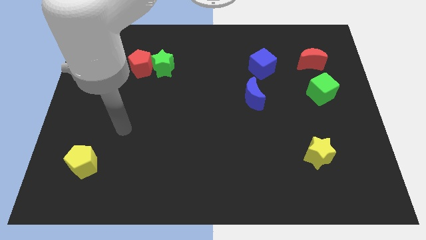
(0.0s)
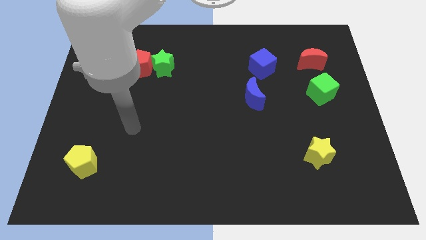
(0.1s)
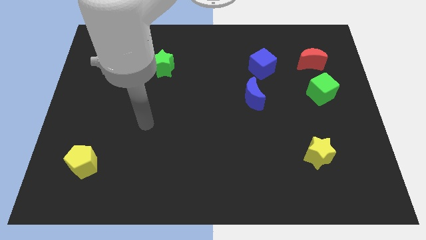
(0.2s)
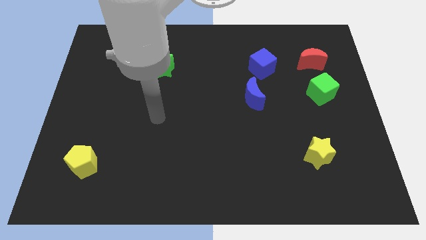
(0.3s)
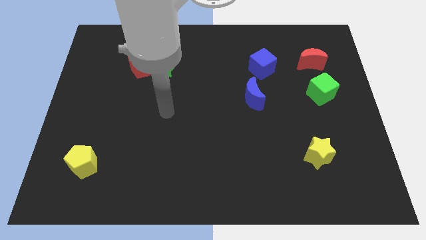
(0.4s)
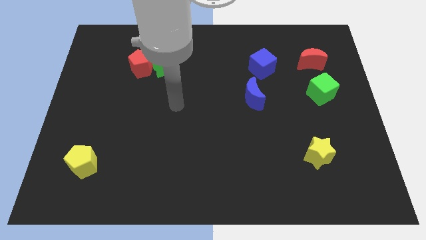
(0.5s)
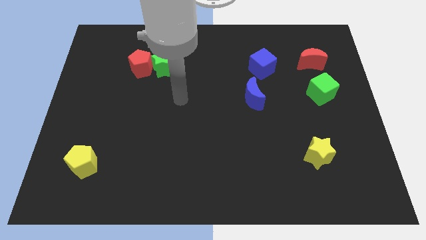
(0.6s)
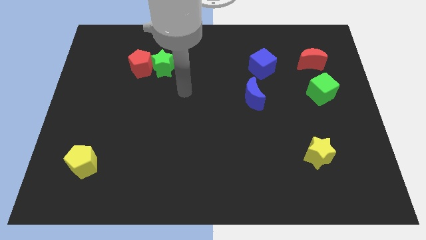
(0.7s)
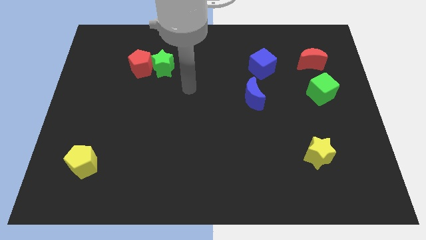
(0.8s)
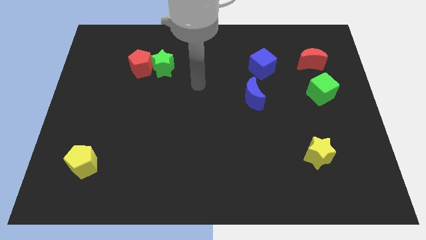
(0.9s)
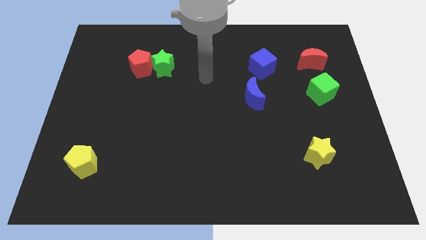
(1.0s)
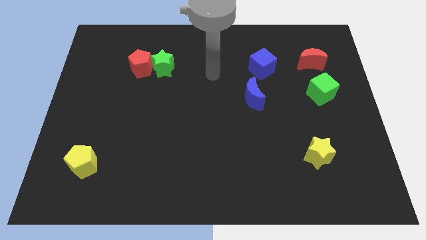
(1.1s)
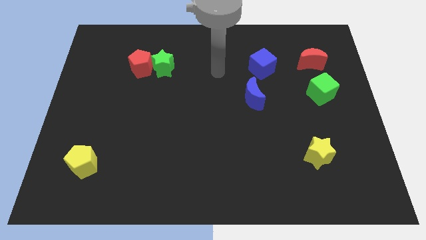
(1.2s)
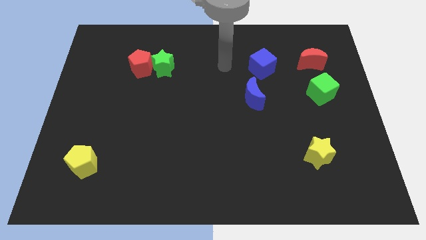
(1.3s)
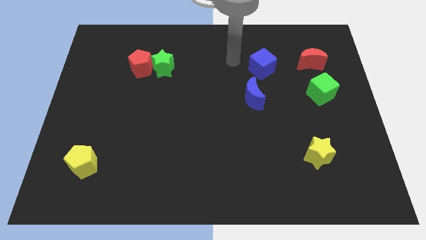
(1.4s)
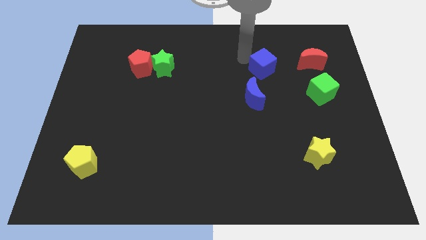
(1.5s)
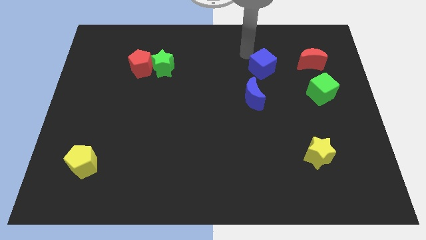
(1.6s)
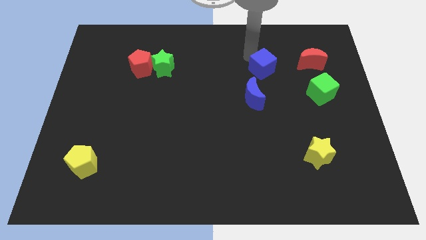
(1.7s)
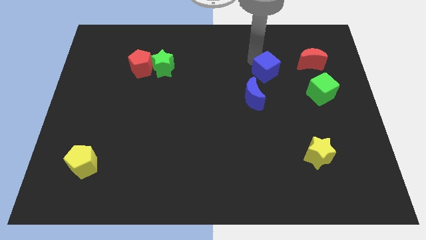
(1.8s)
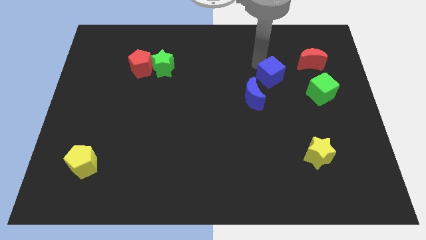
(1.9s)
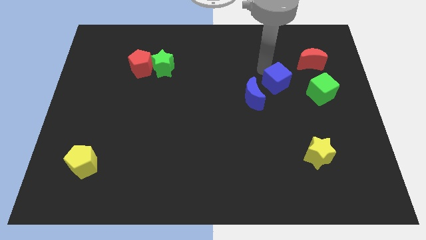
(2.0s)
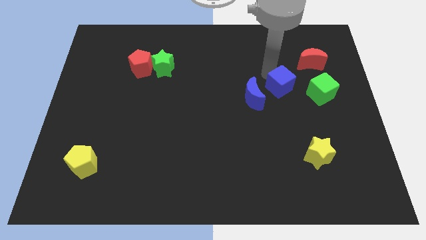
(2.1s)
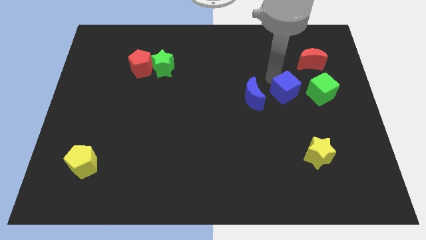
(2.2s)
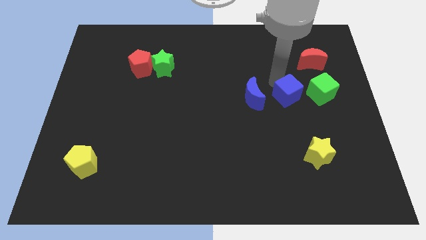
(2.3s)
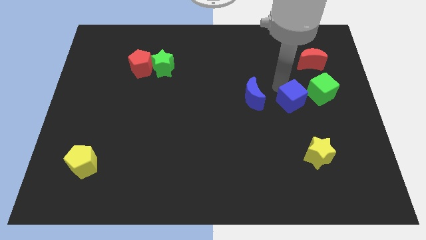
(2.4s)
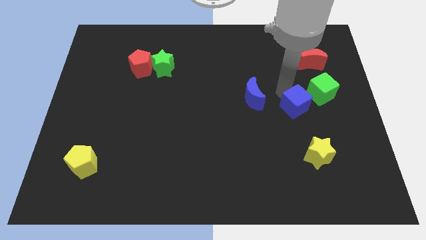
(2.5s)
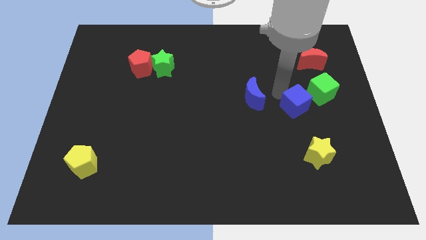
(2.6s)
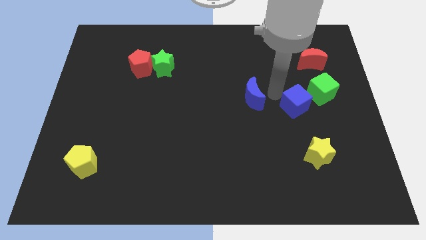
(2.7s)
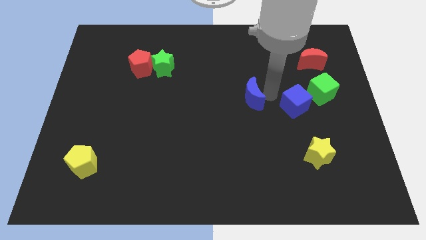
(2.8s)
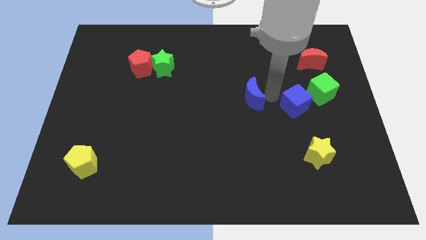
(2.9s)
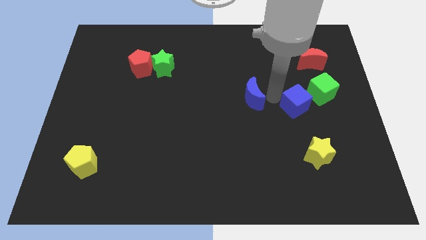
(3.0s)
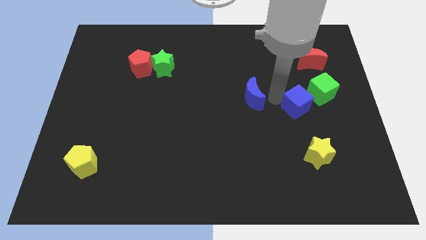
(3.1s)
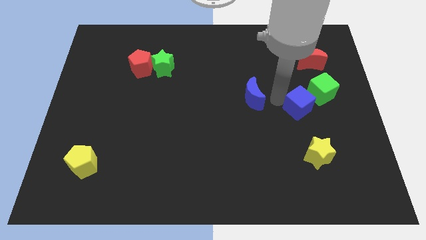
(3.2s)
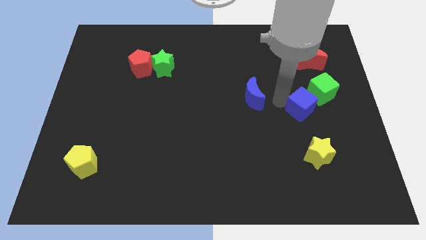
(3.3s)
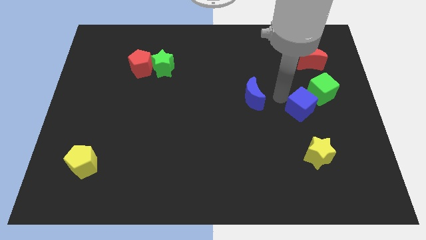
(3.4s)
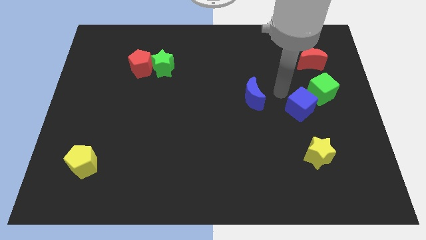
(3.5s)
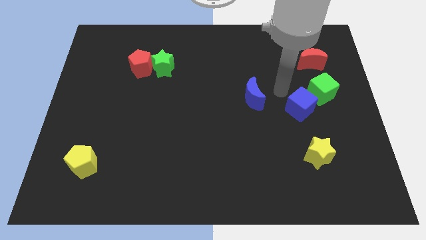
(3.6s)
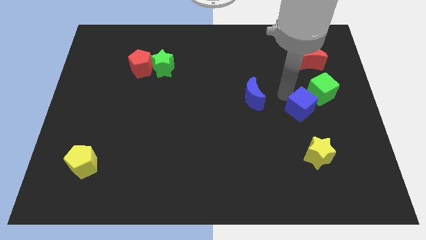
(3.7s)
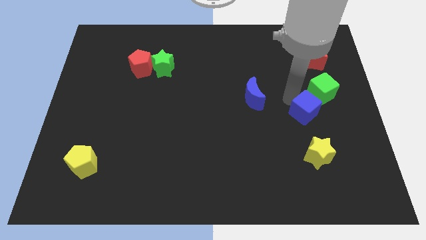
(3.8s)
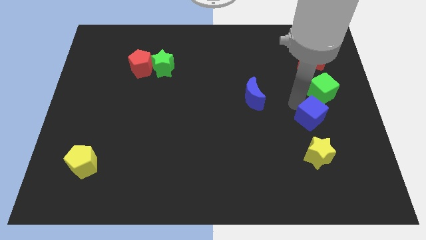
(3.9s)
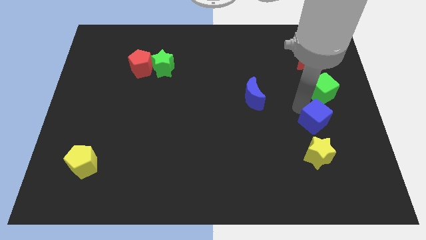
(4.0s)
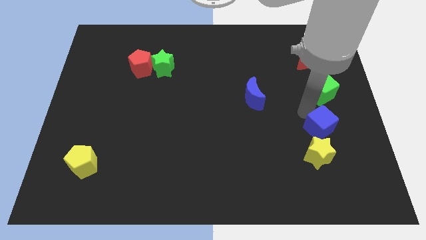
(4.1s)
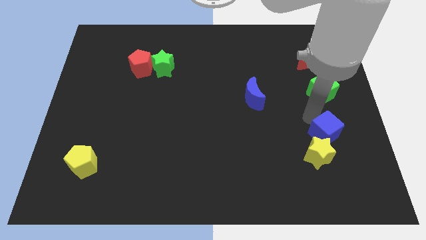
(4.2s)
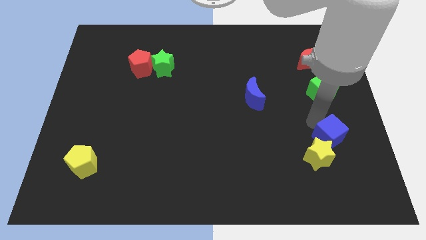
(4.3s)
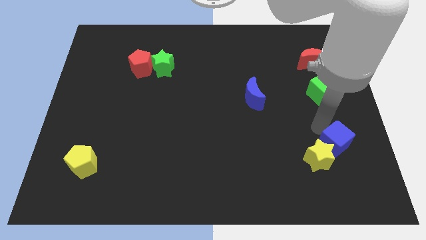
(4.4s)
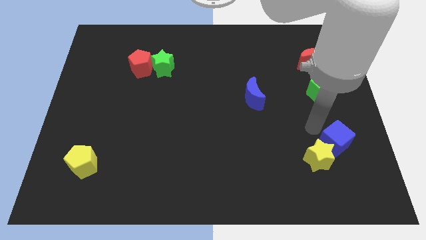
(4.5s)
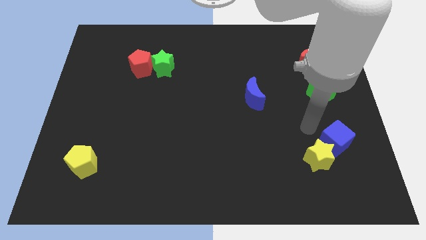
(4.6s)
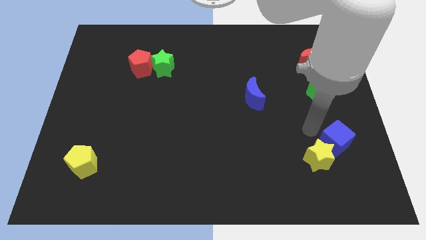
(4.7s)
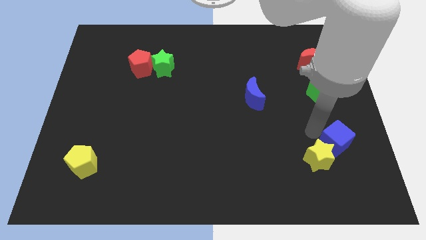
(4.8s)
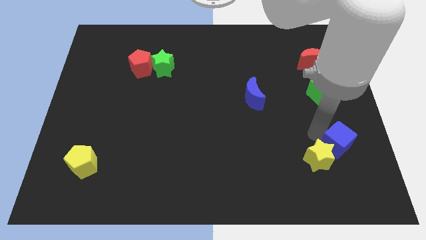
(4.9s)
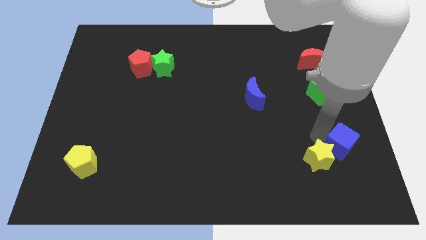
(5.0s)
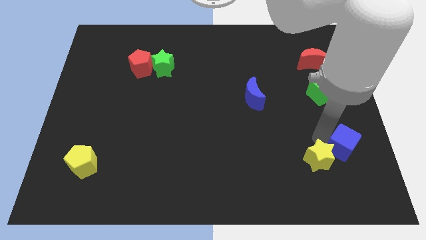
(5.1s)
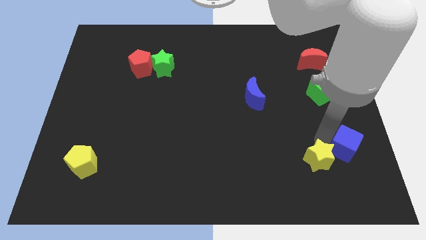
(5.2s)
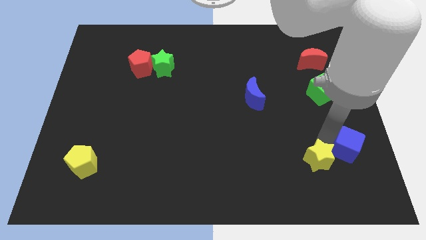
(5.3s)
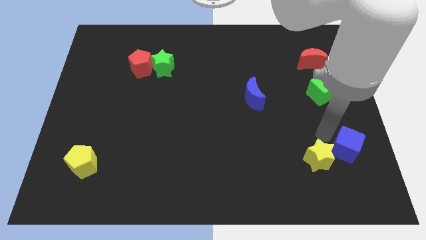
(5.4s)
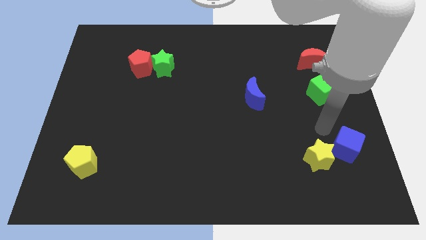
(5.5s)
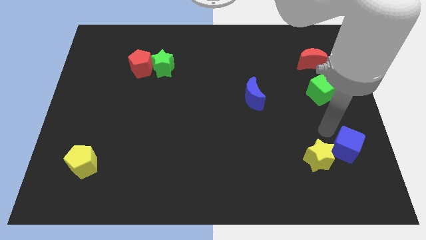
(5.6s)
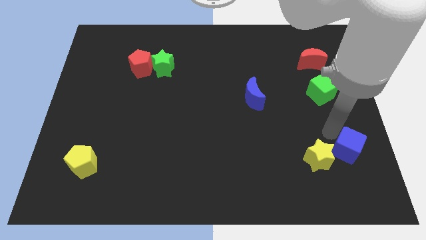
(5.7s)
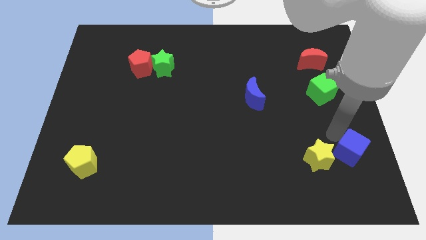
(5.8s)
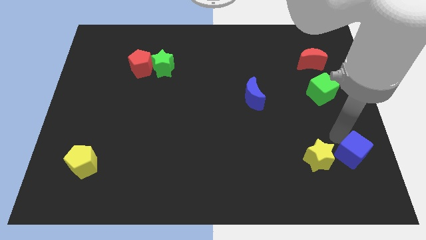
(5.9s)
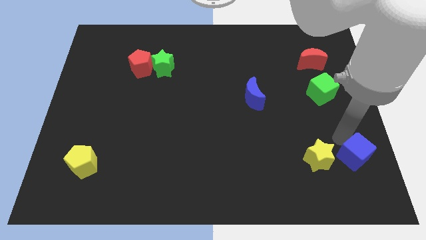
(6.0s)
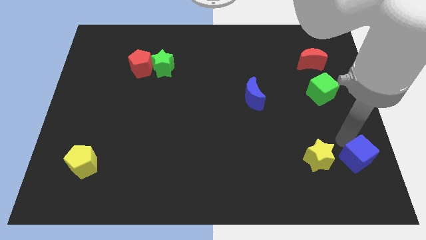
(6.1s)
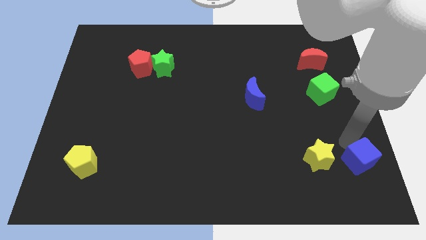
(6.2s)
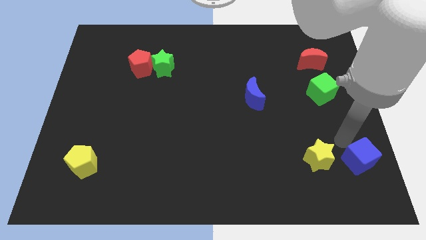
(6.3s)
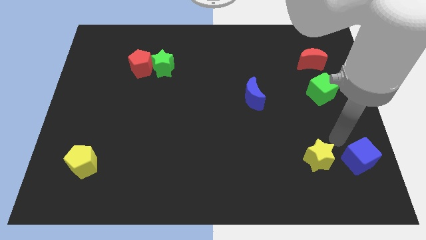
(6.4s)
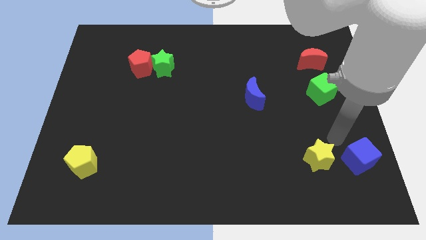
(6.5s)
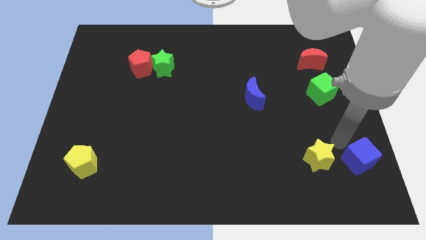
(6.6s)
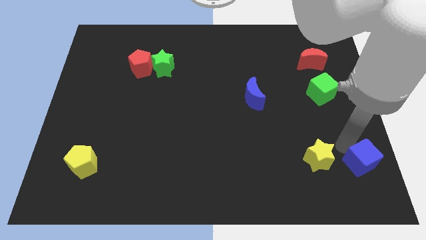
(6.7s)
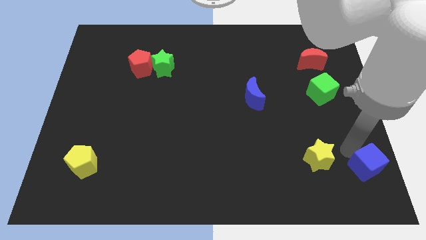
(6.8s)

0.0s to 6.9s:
put the blue cube to the lower right corner
